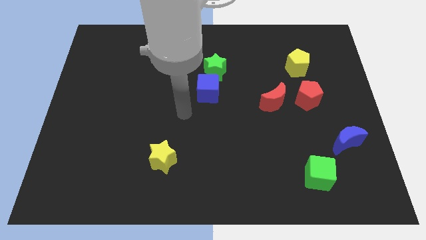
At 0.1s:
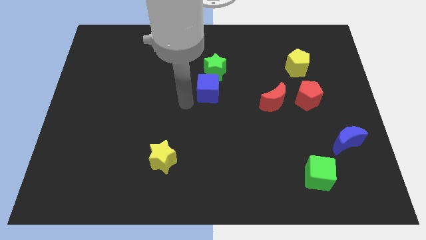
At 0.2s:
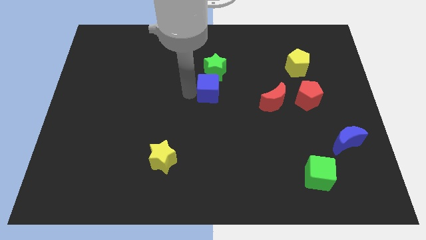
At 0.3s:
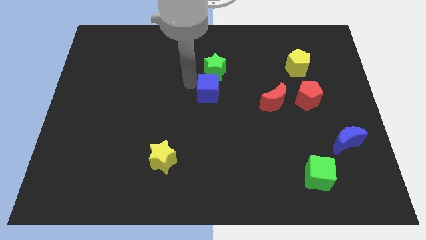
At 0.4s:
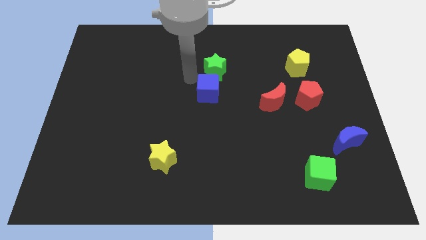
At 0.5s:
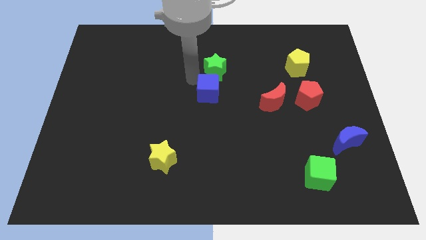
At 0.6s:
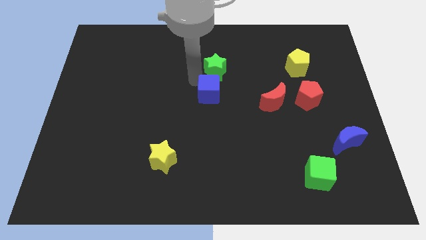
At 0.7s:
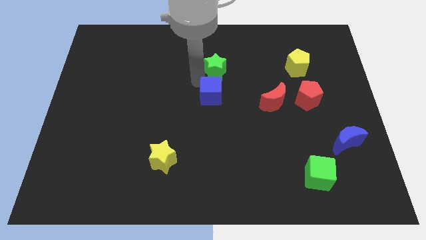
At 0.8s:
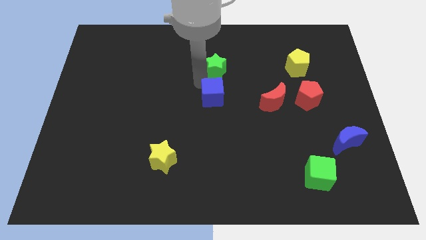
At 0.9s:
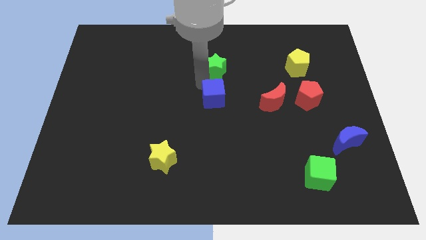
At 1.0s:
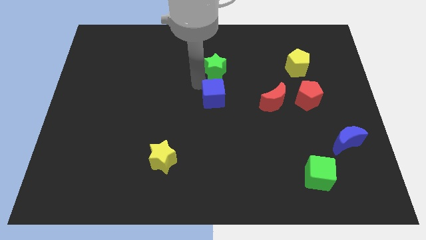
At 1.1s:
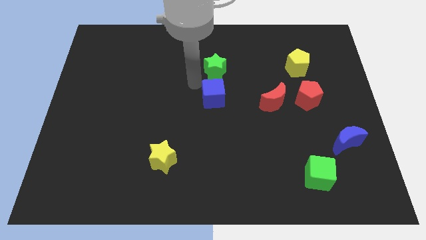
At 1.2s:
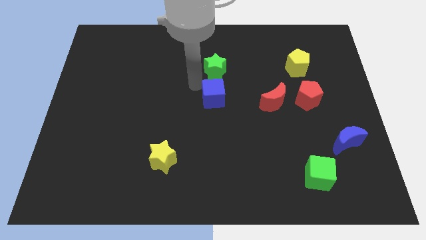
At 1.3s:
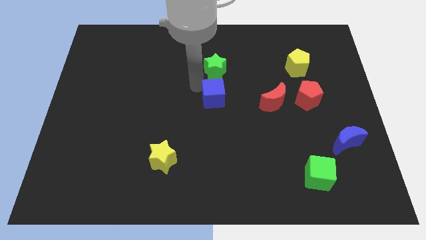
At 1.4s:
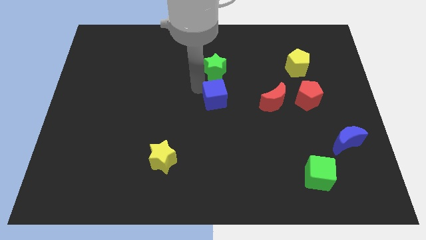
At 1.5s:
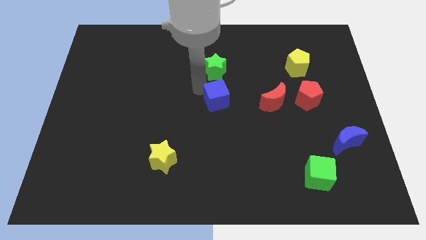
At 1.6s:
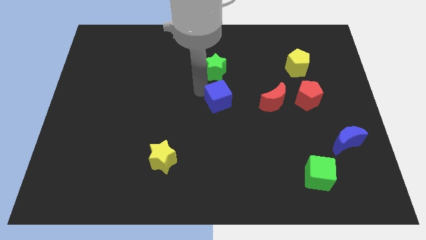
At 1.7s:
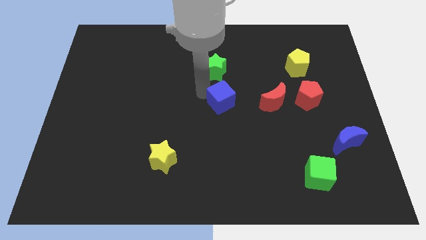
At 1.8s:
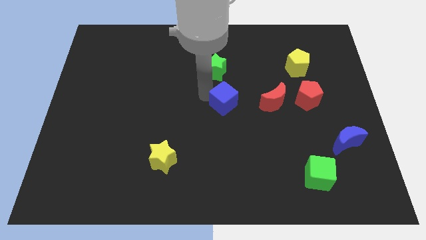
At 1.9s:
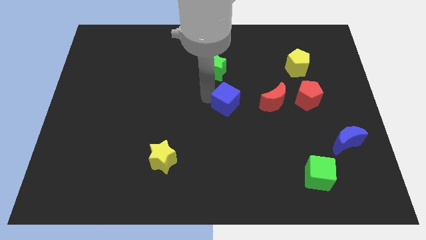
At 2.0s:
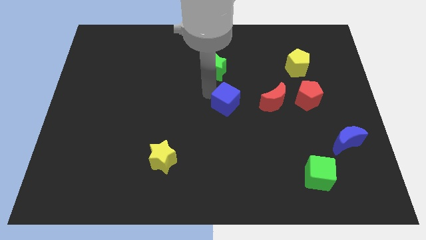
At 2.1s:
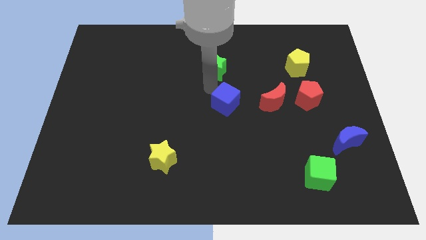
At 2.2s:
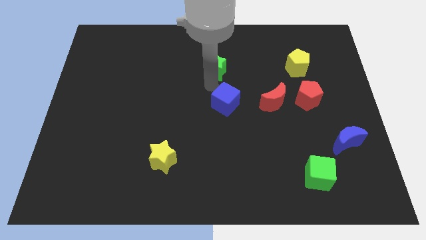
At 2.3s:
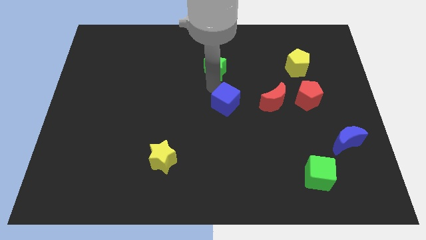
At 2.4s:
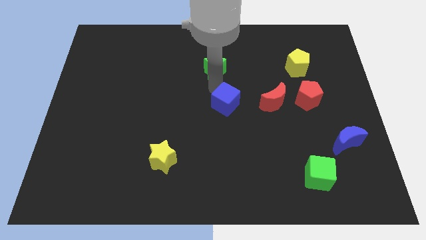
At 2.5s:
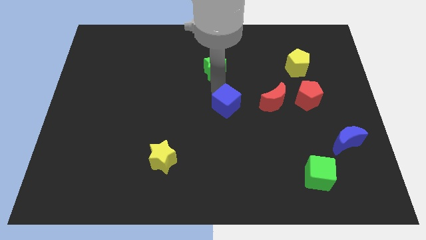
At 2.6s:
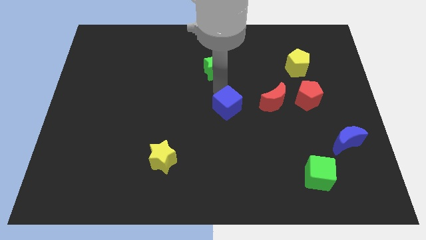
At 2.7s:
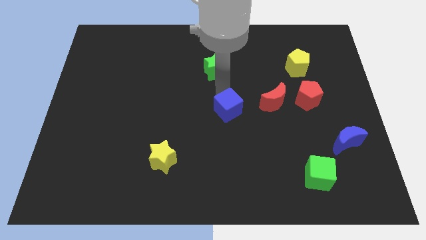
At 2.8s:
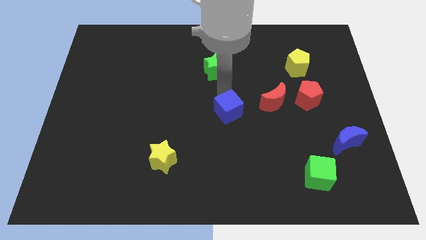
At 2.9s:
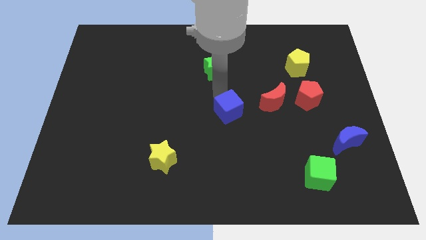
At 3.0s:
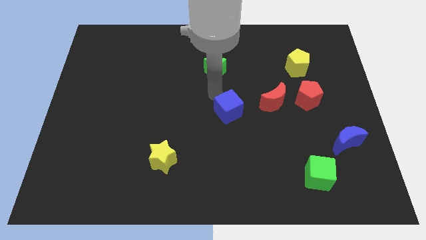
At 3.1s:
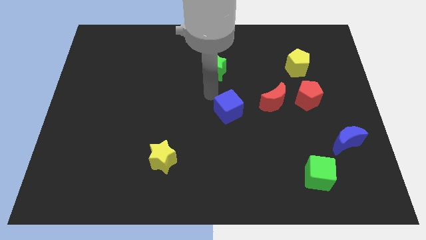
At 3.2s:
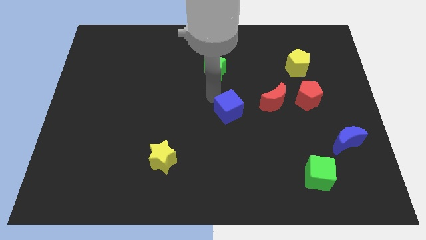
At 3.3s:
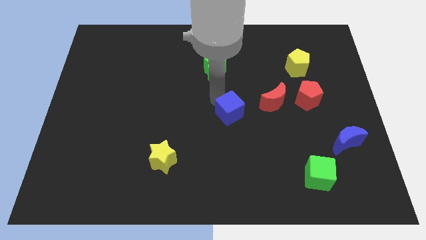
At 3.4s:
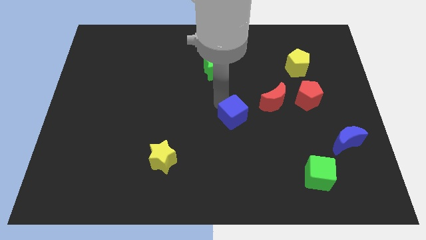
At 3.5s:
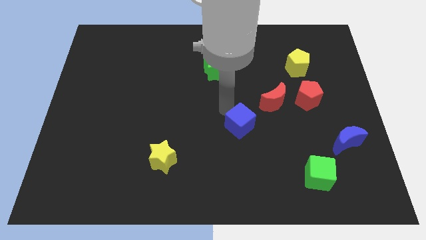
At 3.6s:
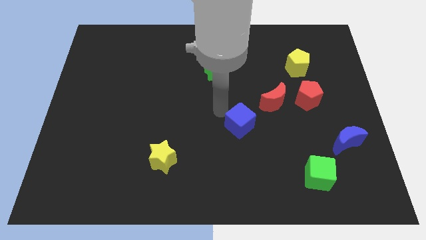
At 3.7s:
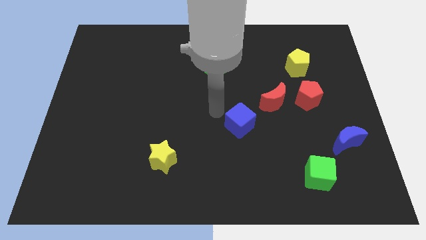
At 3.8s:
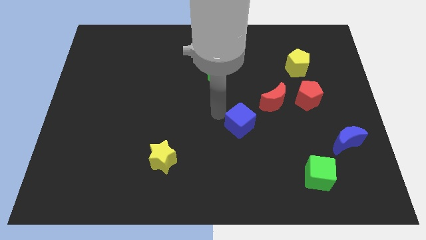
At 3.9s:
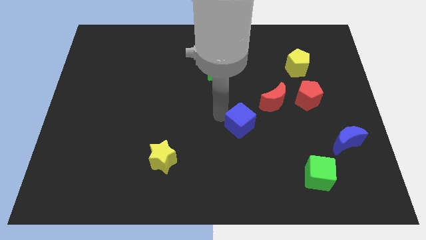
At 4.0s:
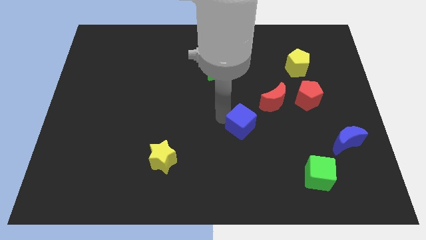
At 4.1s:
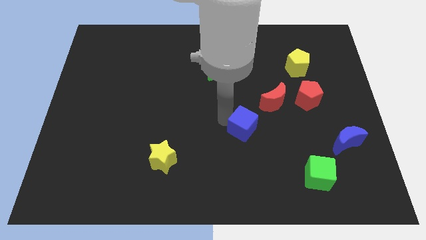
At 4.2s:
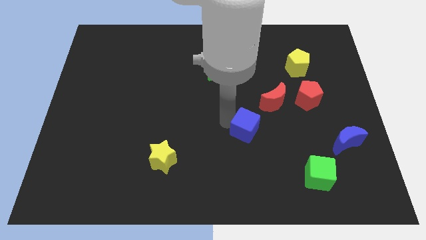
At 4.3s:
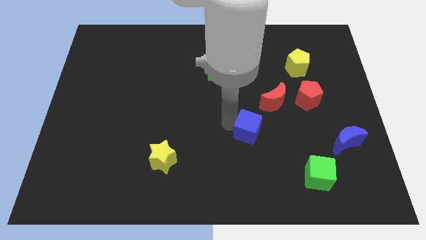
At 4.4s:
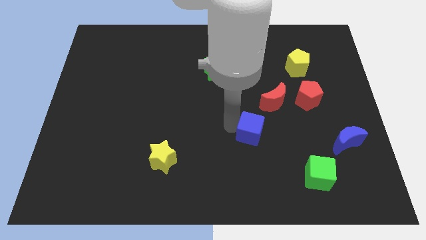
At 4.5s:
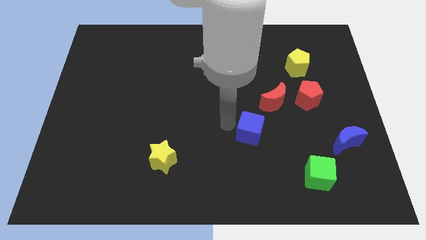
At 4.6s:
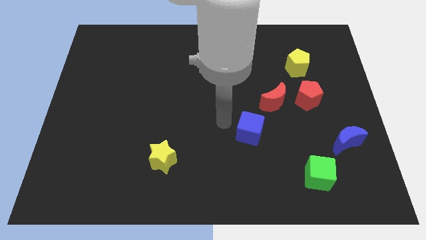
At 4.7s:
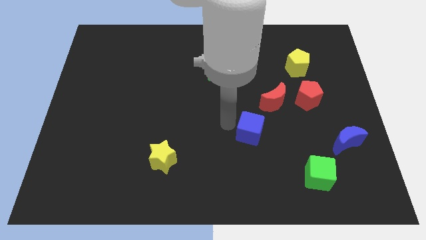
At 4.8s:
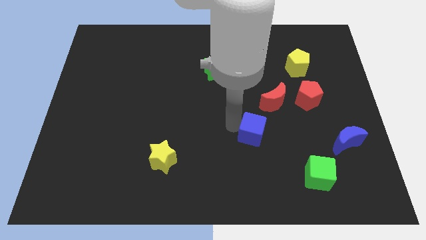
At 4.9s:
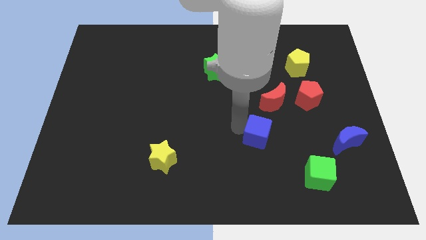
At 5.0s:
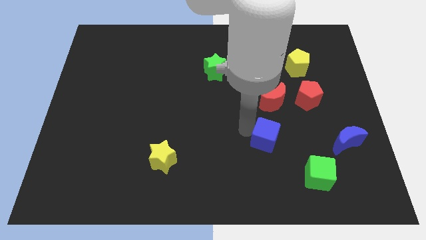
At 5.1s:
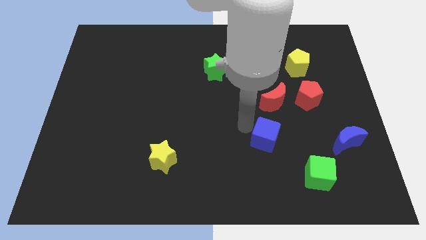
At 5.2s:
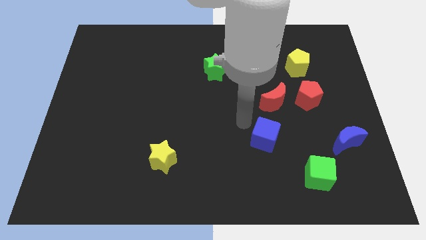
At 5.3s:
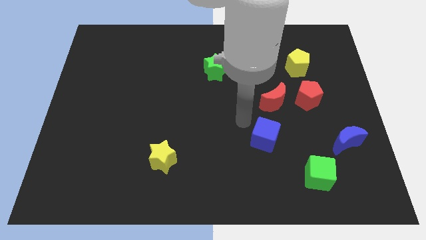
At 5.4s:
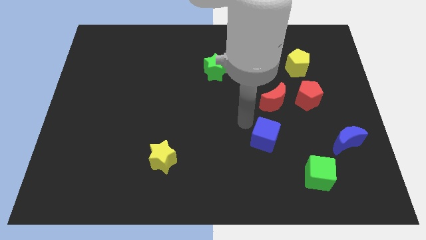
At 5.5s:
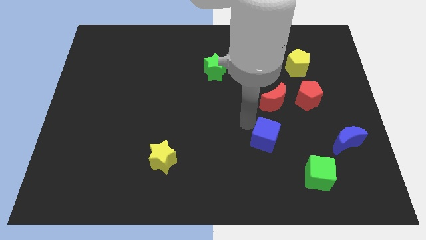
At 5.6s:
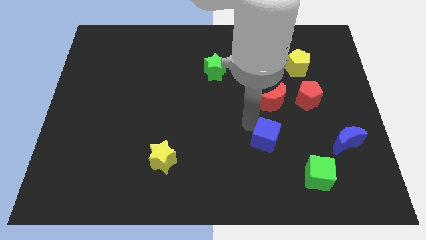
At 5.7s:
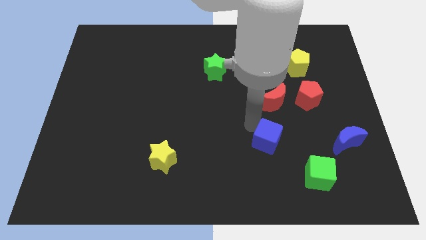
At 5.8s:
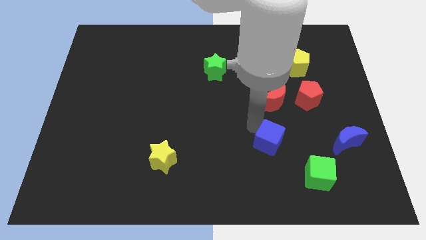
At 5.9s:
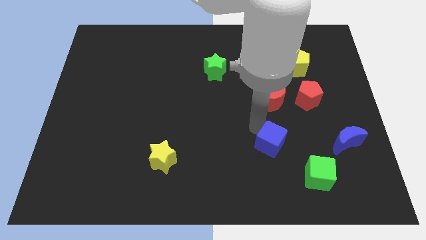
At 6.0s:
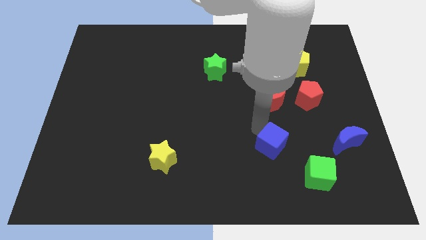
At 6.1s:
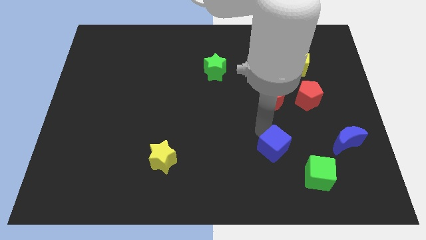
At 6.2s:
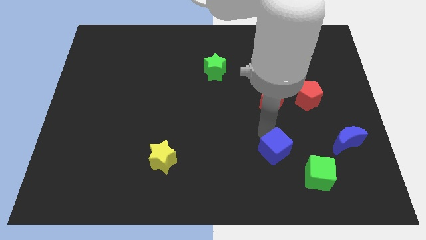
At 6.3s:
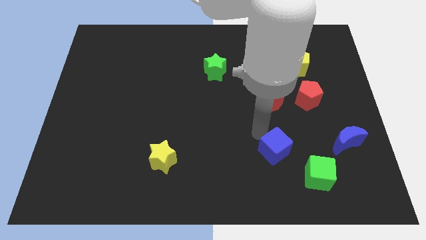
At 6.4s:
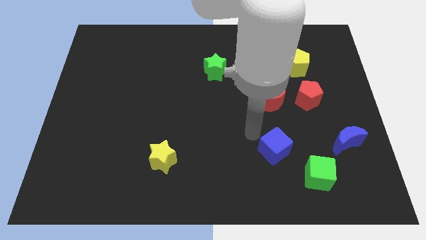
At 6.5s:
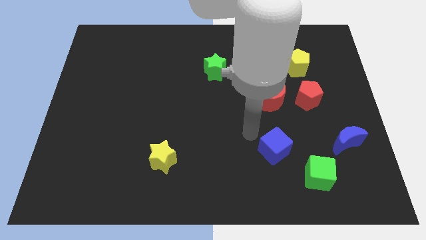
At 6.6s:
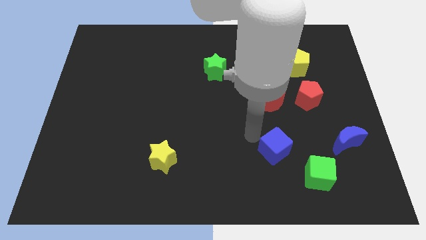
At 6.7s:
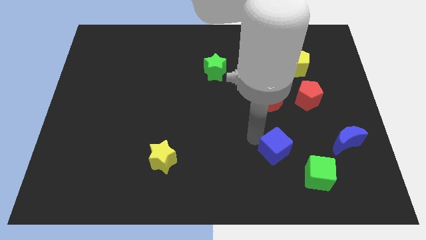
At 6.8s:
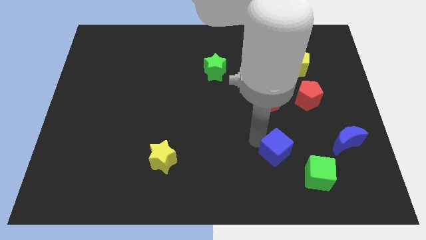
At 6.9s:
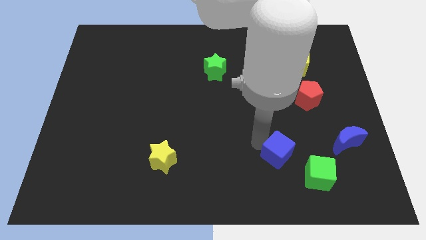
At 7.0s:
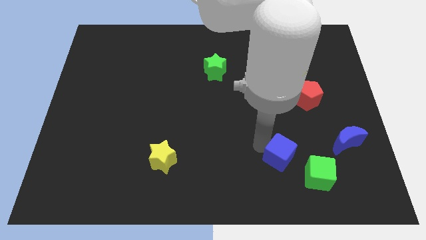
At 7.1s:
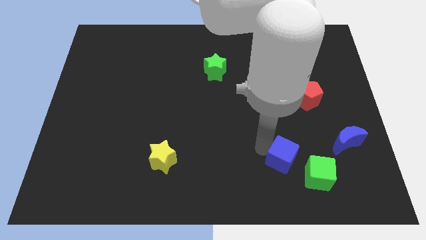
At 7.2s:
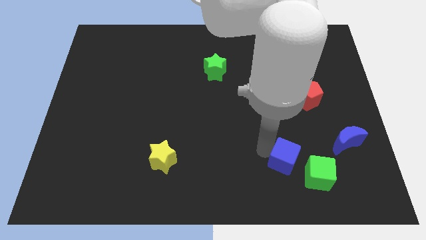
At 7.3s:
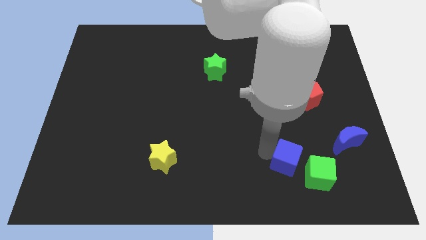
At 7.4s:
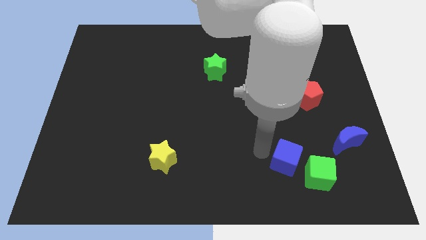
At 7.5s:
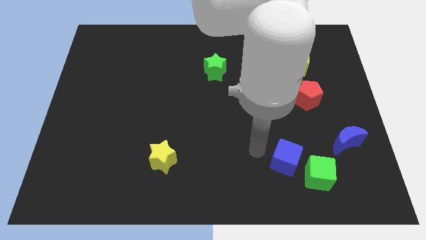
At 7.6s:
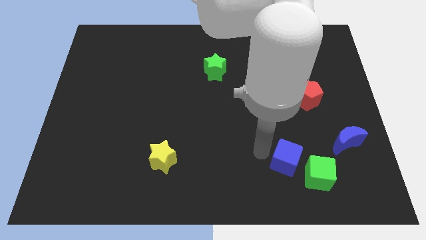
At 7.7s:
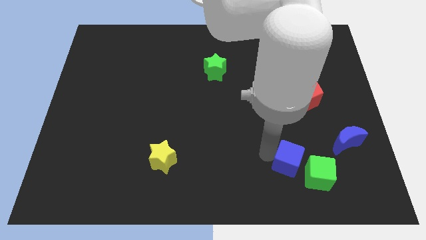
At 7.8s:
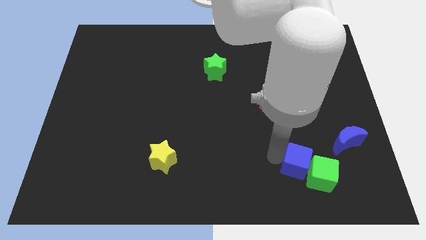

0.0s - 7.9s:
move the blue cube towards the green cube
